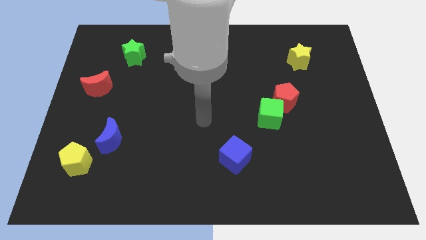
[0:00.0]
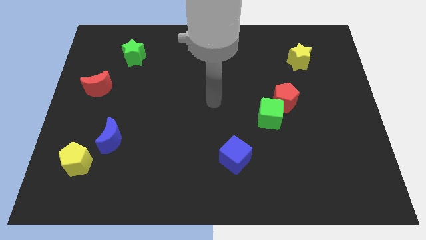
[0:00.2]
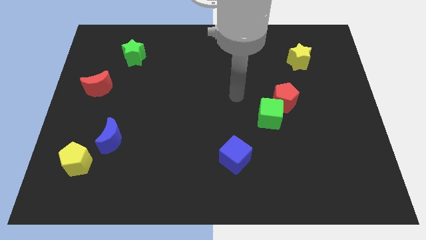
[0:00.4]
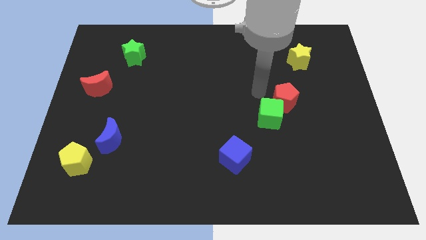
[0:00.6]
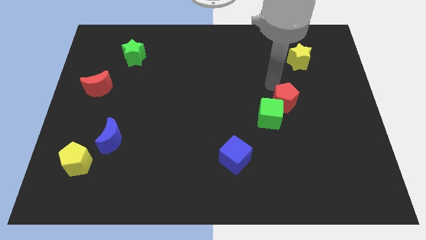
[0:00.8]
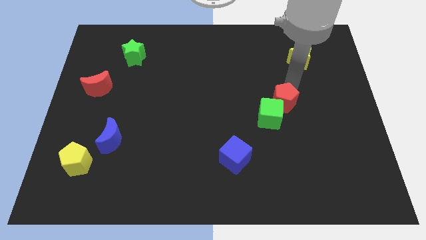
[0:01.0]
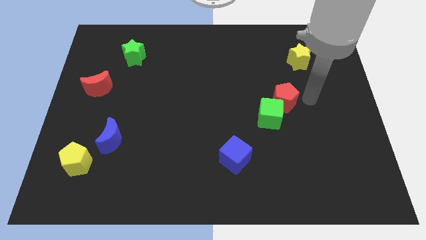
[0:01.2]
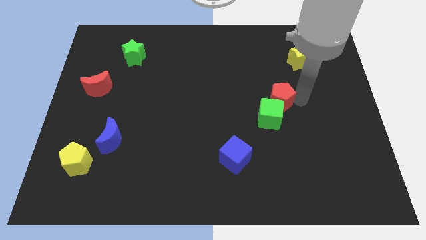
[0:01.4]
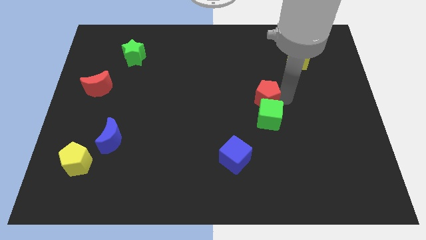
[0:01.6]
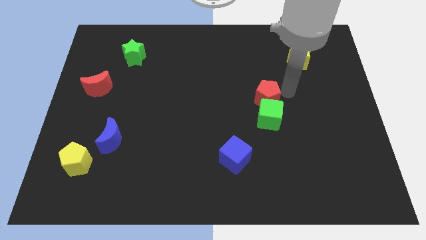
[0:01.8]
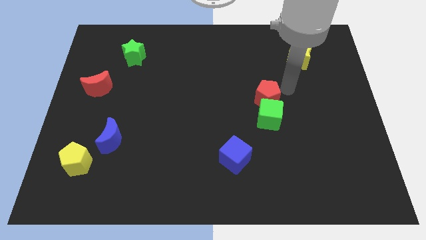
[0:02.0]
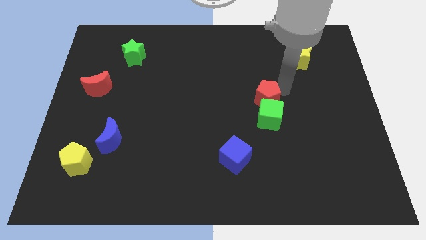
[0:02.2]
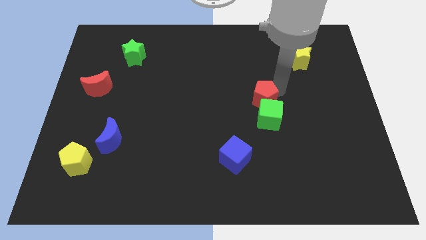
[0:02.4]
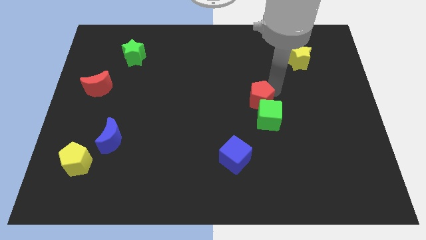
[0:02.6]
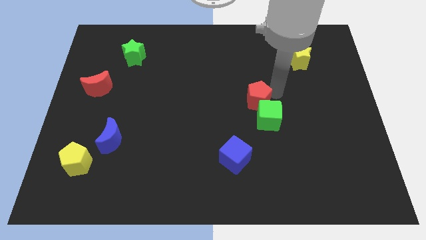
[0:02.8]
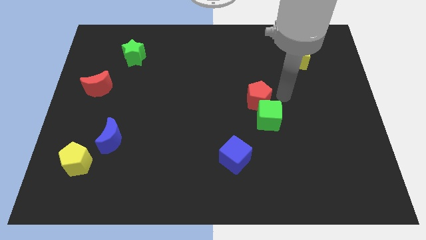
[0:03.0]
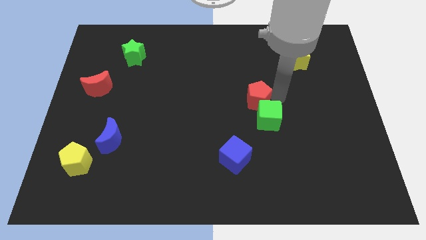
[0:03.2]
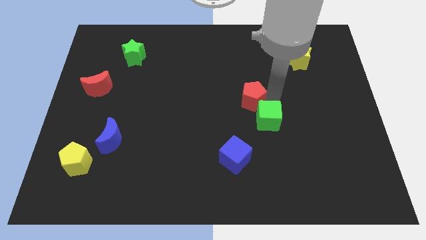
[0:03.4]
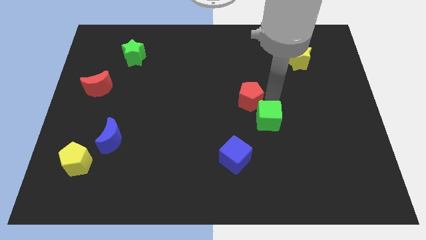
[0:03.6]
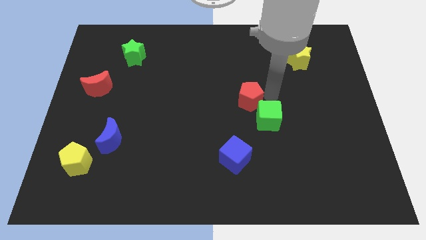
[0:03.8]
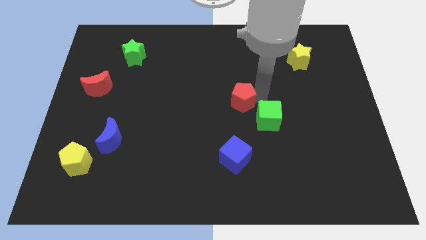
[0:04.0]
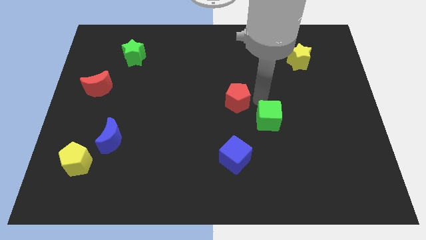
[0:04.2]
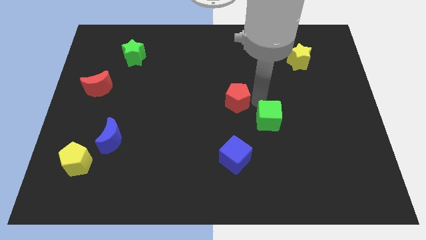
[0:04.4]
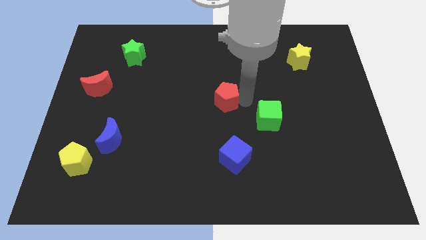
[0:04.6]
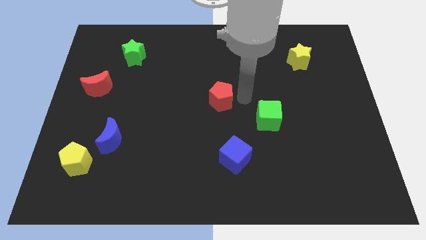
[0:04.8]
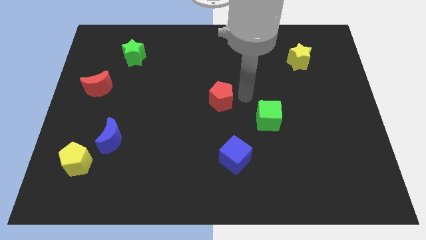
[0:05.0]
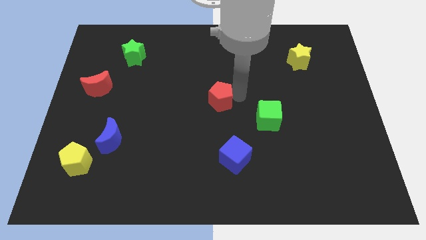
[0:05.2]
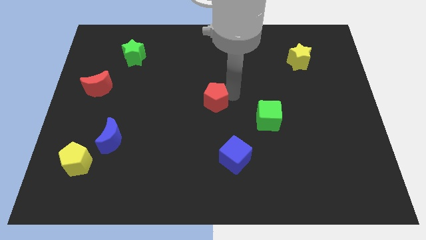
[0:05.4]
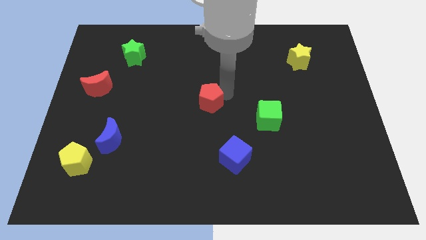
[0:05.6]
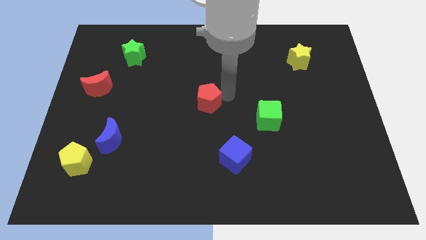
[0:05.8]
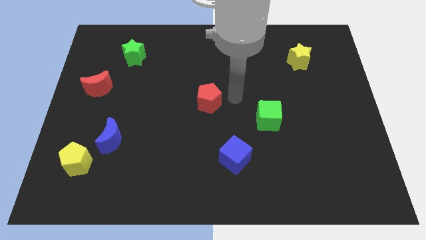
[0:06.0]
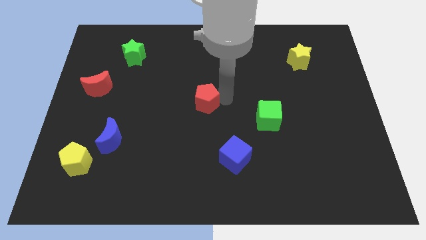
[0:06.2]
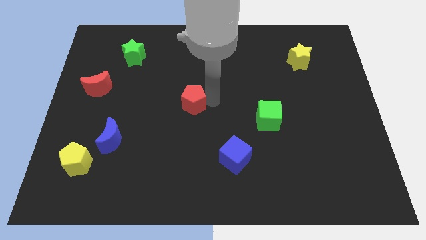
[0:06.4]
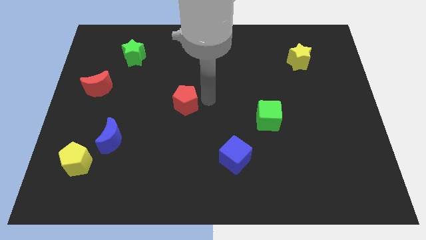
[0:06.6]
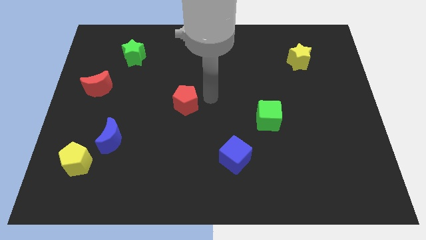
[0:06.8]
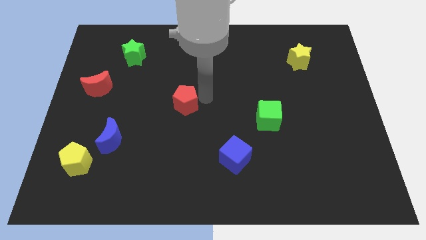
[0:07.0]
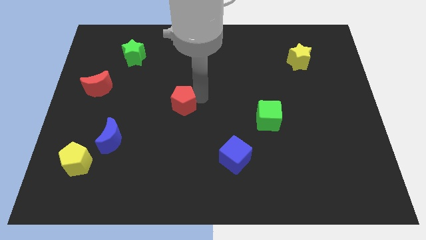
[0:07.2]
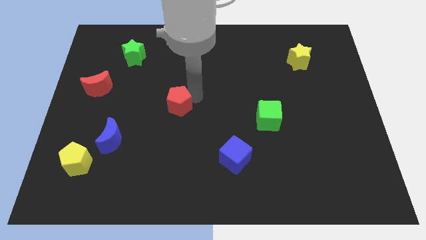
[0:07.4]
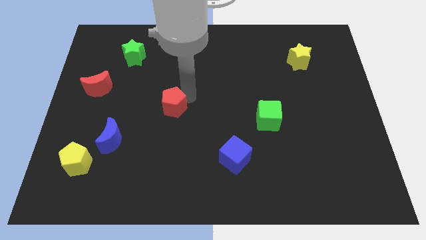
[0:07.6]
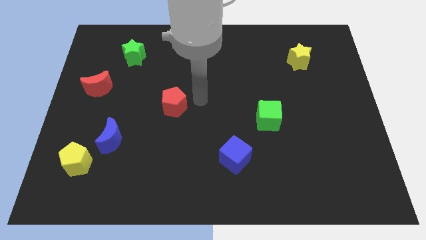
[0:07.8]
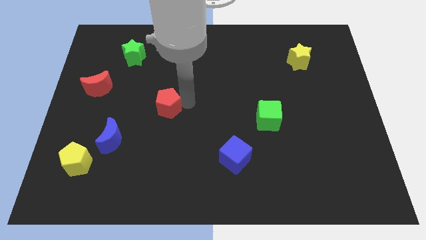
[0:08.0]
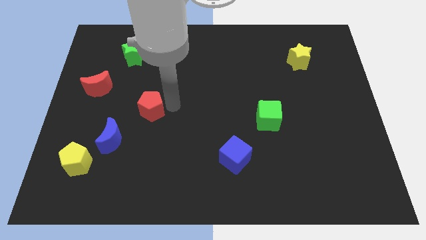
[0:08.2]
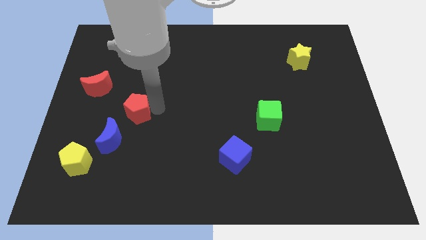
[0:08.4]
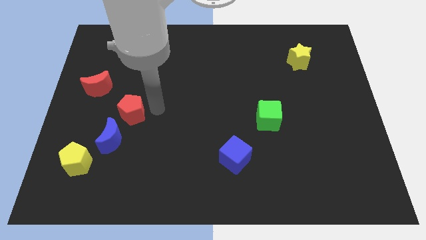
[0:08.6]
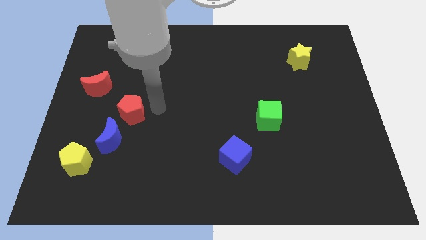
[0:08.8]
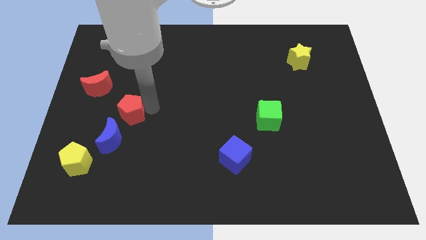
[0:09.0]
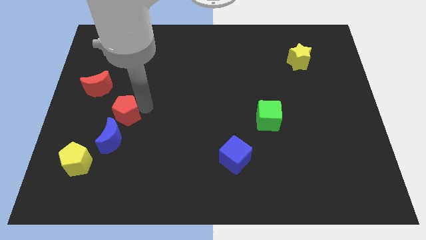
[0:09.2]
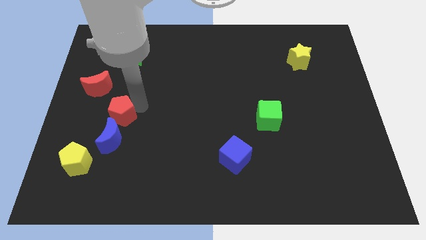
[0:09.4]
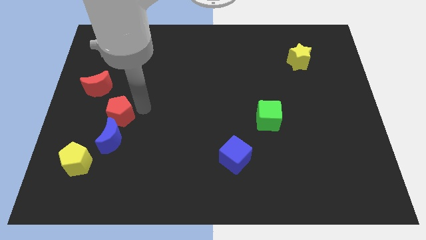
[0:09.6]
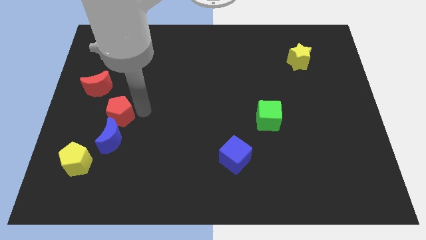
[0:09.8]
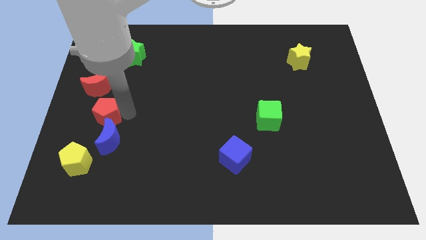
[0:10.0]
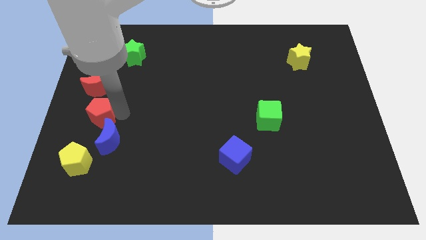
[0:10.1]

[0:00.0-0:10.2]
slide the red pentagon to the left side

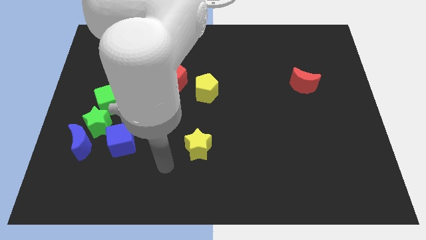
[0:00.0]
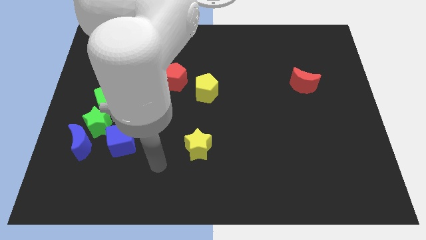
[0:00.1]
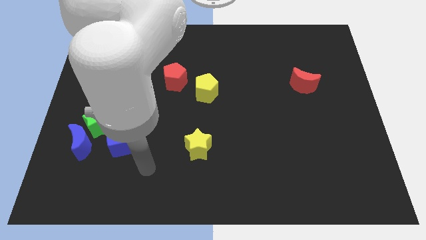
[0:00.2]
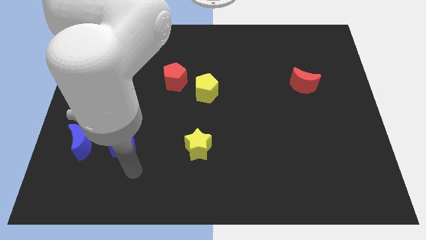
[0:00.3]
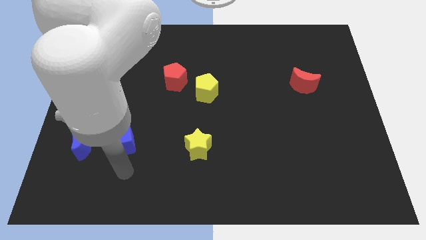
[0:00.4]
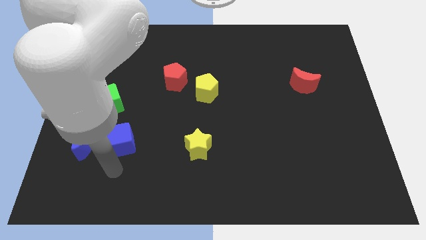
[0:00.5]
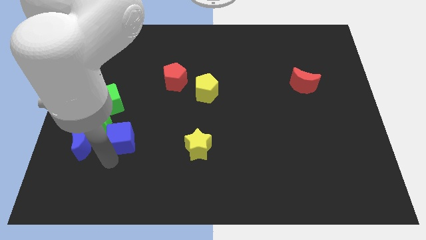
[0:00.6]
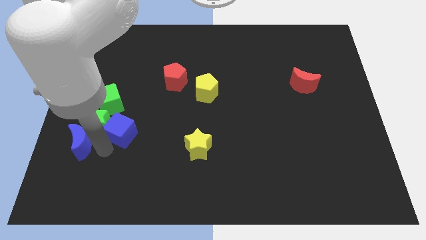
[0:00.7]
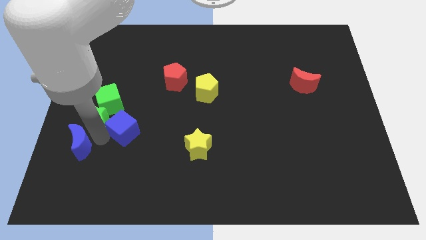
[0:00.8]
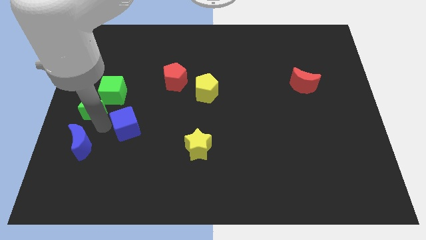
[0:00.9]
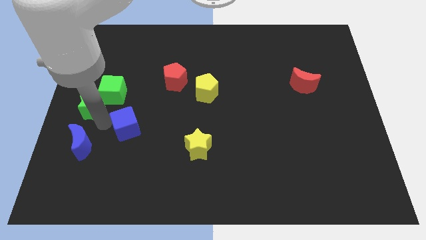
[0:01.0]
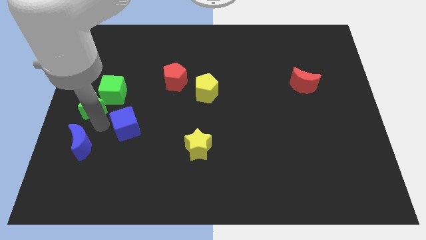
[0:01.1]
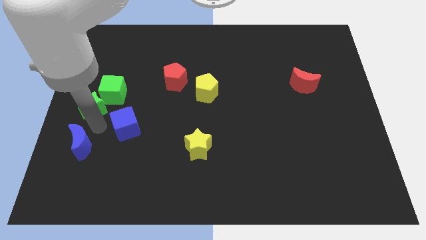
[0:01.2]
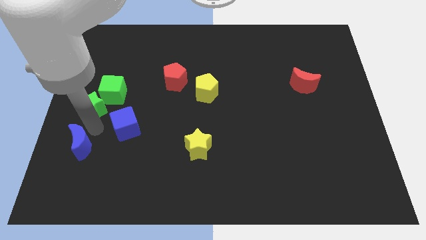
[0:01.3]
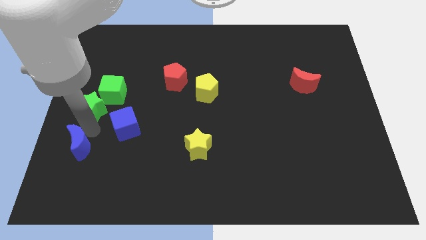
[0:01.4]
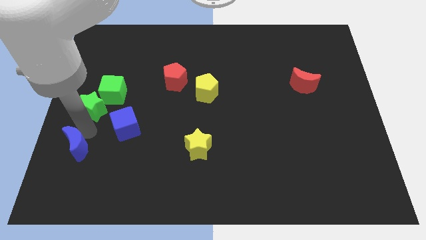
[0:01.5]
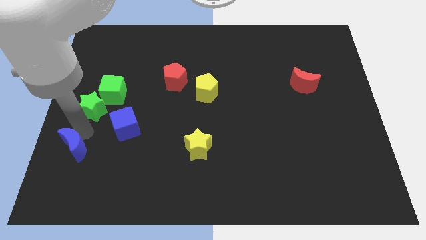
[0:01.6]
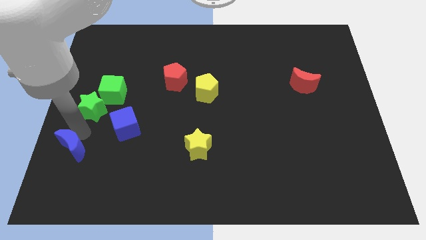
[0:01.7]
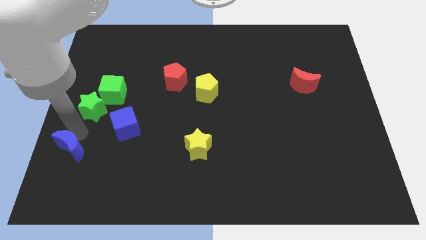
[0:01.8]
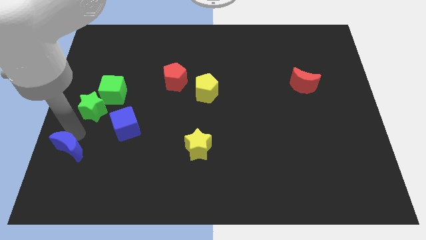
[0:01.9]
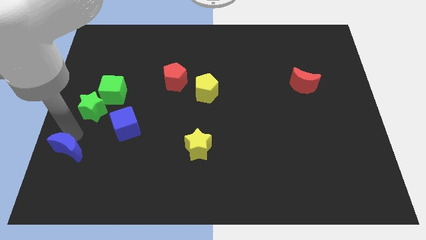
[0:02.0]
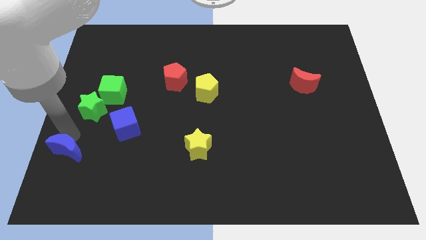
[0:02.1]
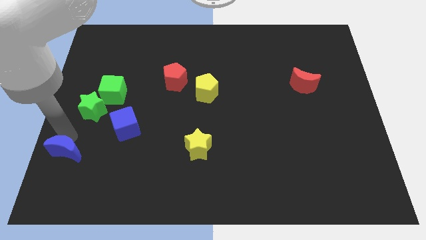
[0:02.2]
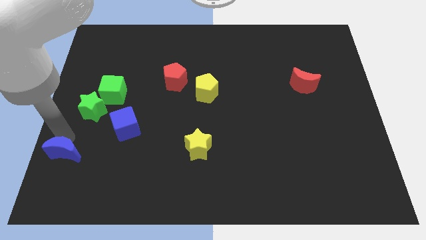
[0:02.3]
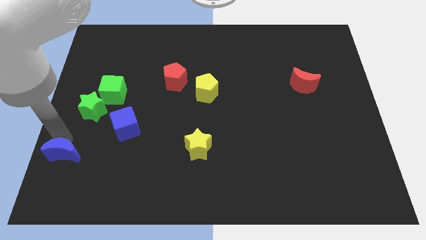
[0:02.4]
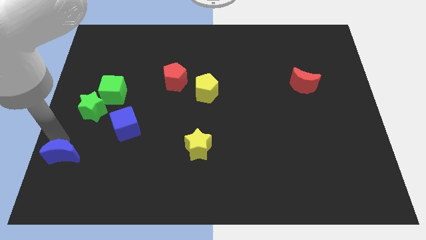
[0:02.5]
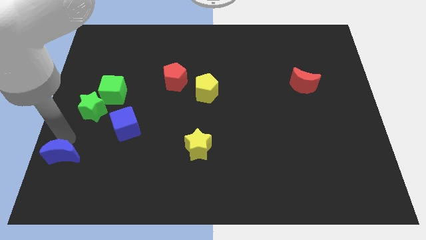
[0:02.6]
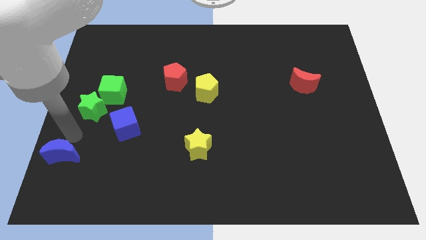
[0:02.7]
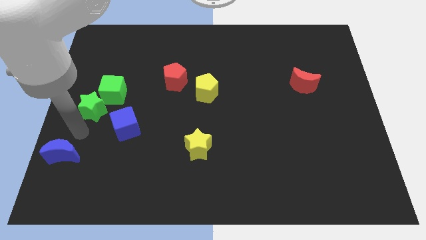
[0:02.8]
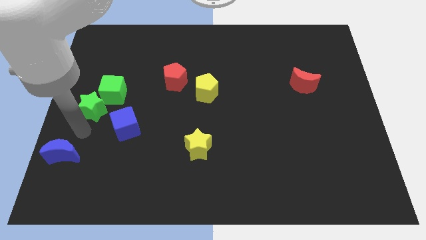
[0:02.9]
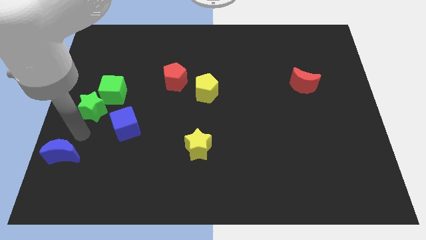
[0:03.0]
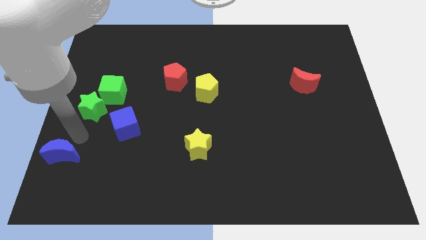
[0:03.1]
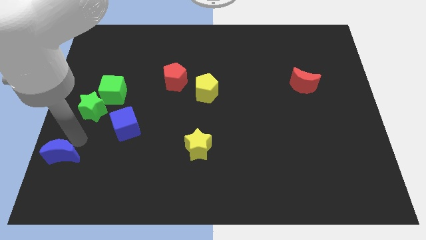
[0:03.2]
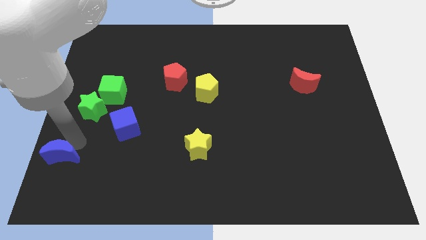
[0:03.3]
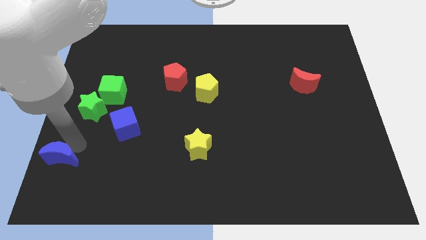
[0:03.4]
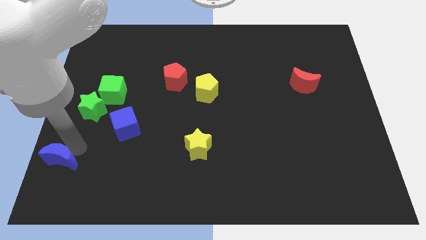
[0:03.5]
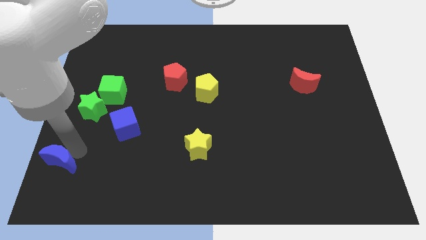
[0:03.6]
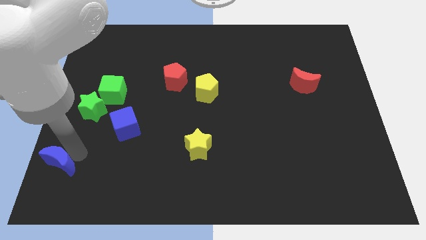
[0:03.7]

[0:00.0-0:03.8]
push the blue moon to the bottom left of the board
